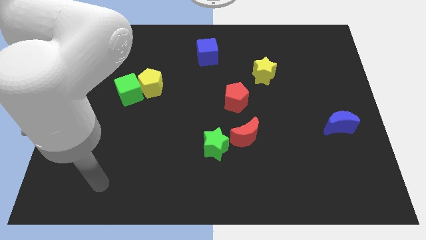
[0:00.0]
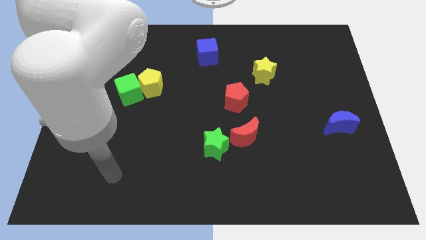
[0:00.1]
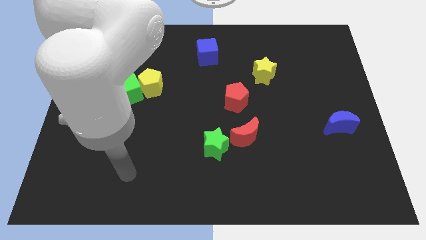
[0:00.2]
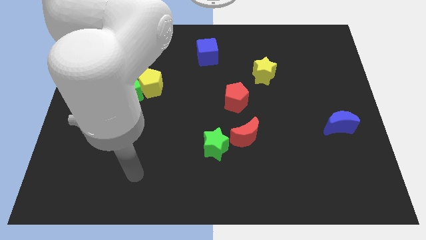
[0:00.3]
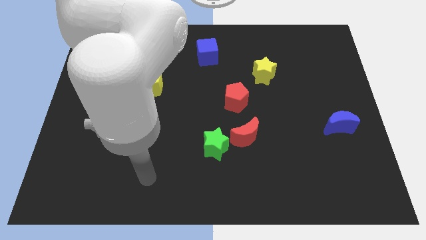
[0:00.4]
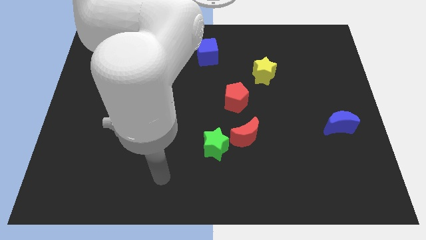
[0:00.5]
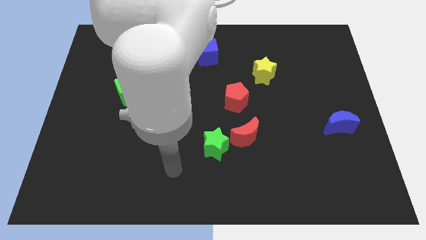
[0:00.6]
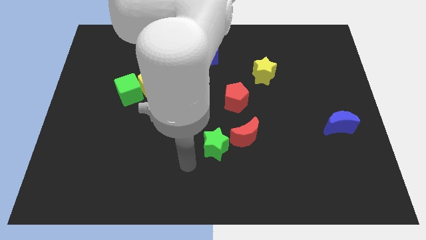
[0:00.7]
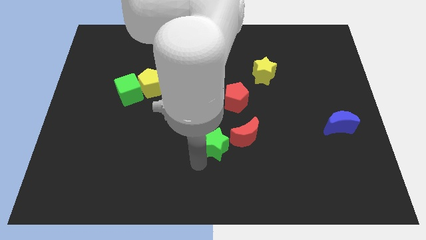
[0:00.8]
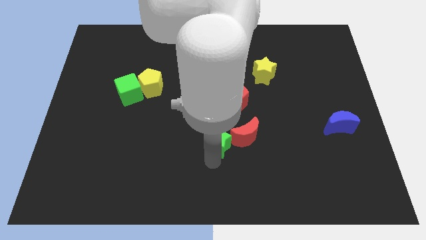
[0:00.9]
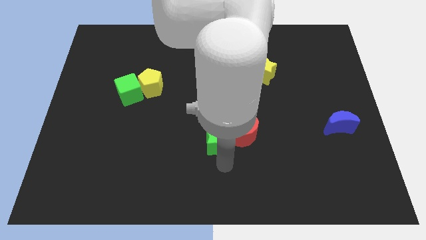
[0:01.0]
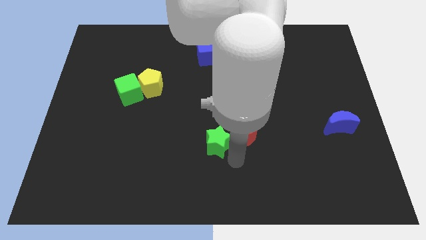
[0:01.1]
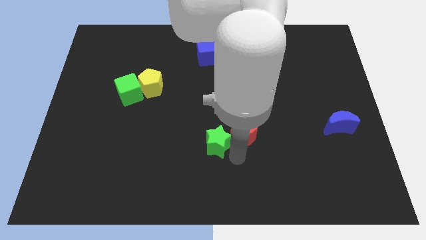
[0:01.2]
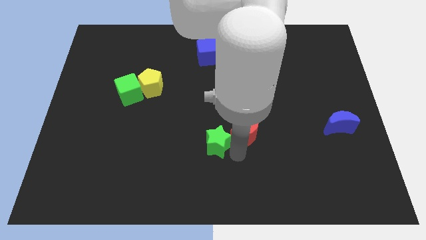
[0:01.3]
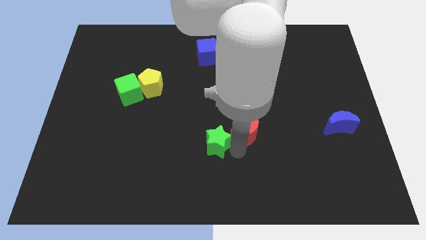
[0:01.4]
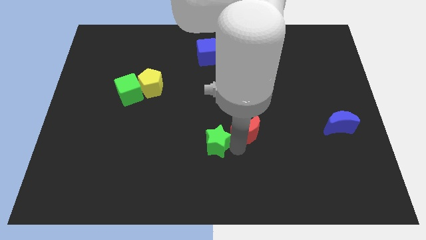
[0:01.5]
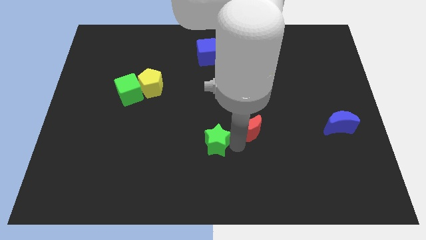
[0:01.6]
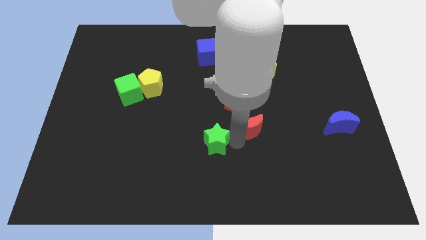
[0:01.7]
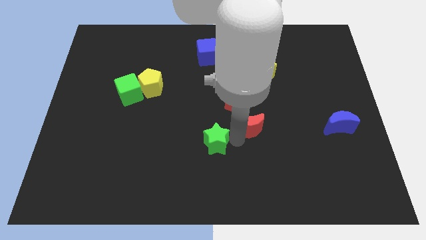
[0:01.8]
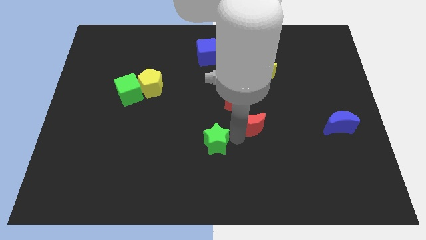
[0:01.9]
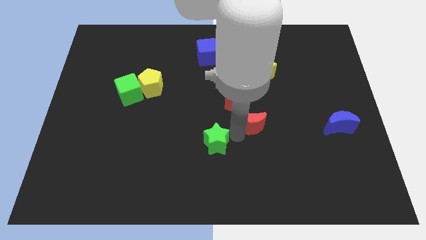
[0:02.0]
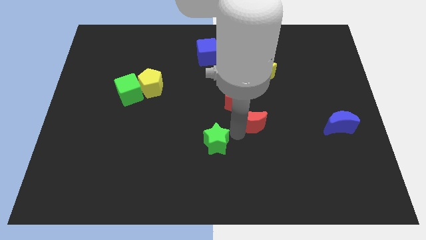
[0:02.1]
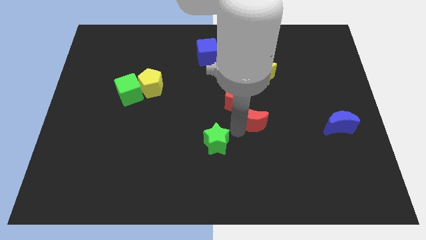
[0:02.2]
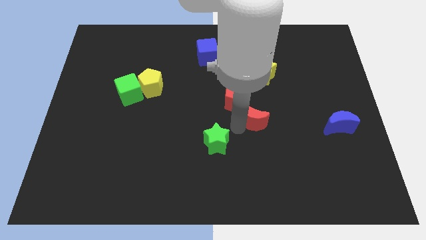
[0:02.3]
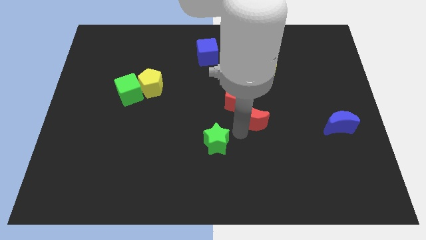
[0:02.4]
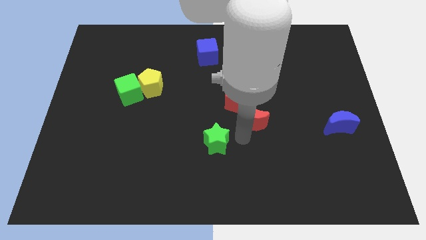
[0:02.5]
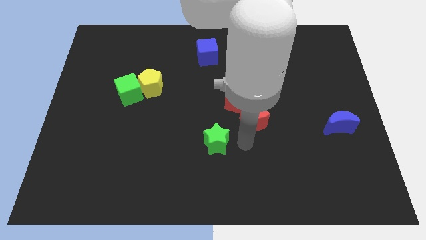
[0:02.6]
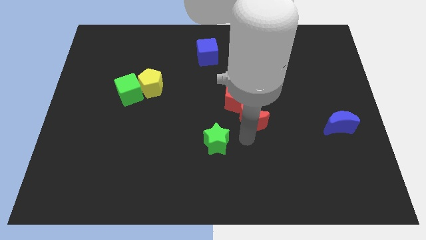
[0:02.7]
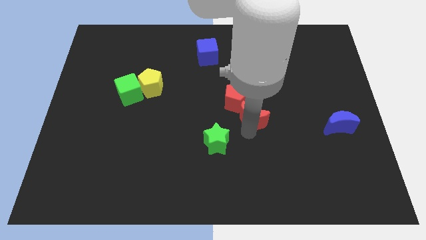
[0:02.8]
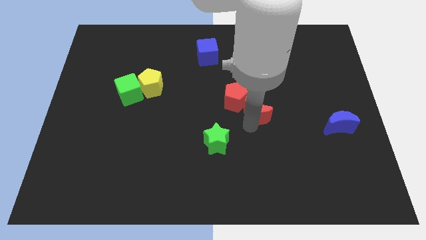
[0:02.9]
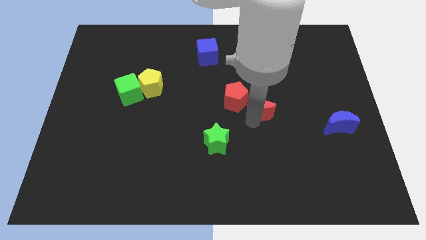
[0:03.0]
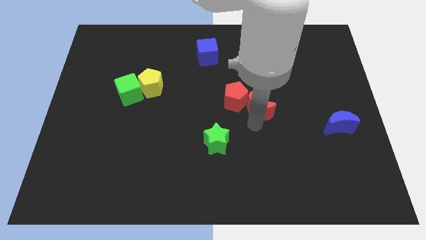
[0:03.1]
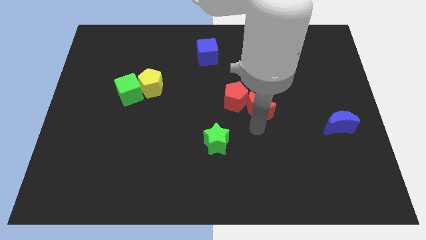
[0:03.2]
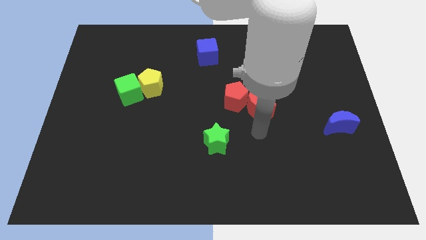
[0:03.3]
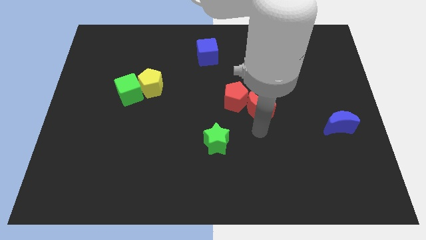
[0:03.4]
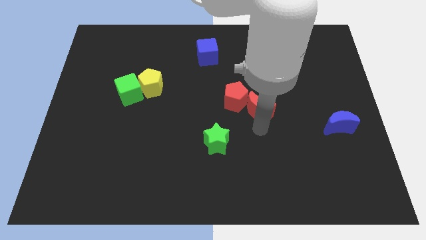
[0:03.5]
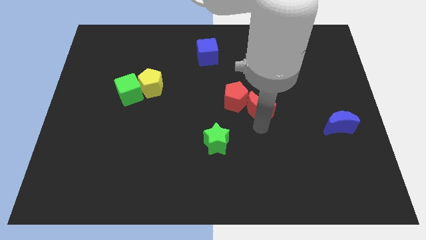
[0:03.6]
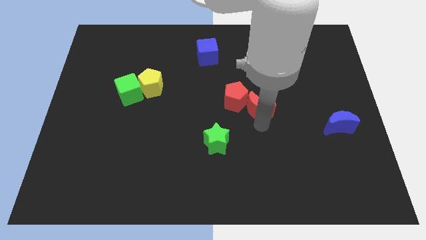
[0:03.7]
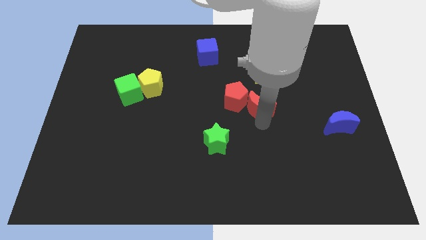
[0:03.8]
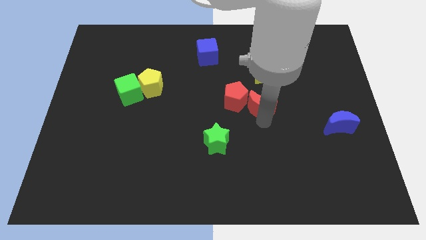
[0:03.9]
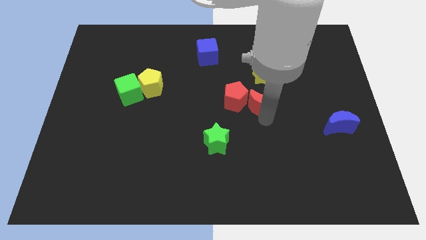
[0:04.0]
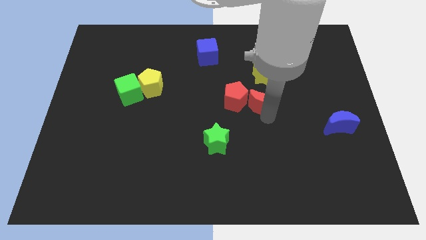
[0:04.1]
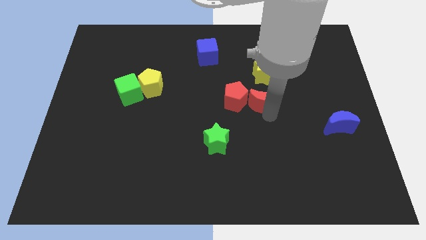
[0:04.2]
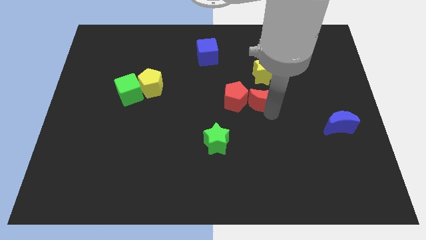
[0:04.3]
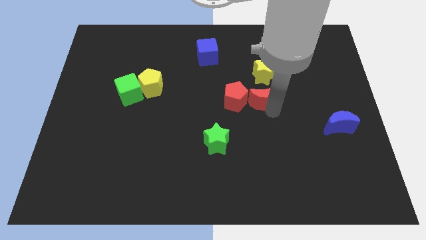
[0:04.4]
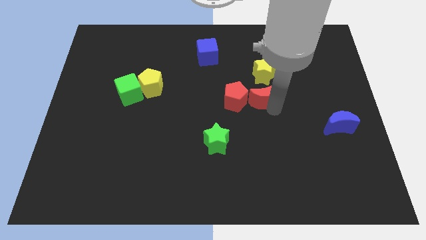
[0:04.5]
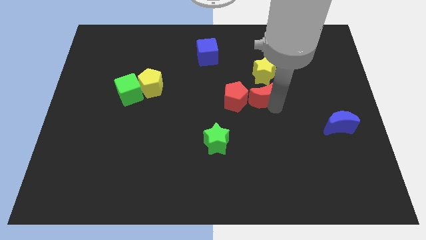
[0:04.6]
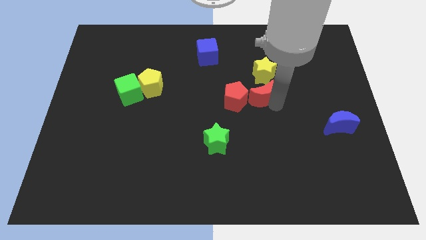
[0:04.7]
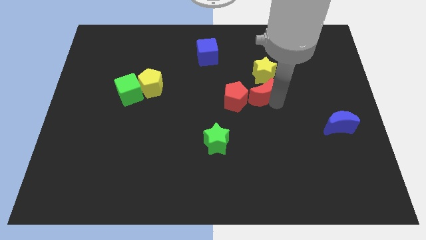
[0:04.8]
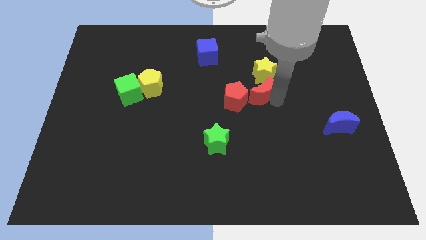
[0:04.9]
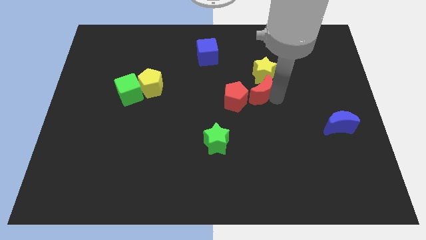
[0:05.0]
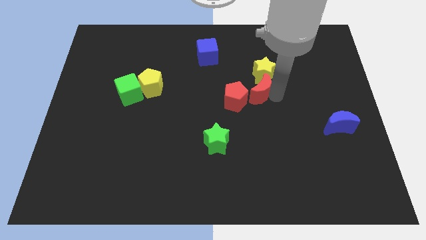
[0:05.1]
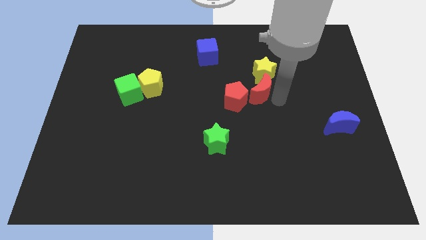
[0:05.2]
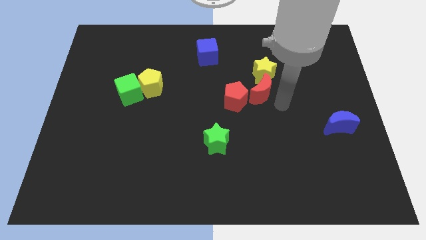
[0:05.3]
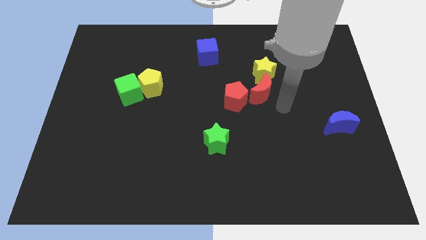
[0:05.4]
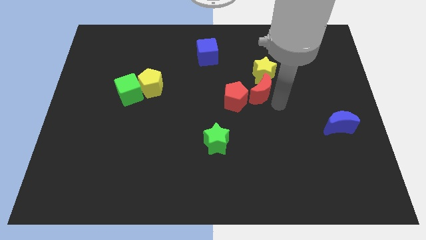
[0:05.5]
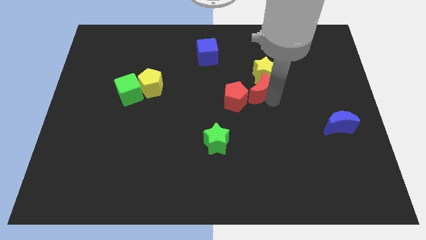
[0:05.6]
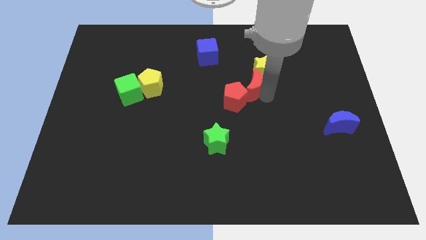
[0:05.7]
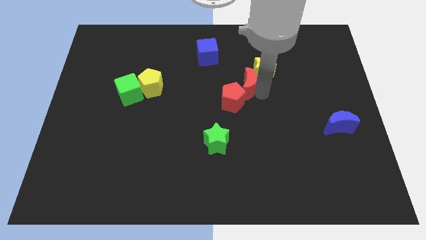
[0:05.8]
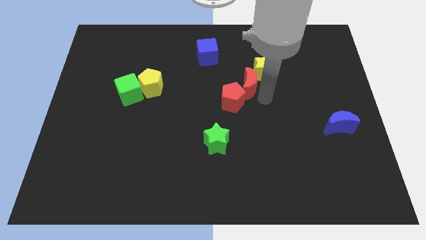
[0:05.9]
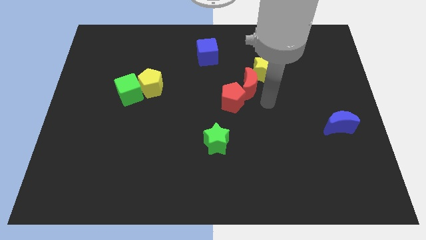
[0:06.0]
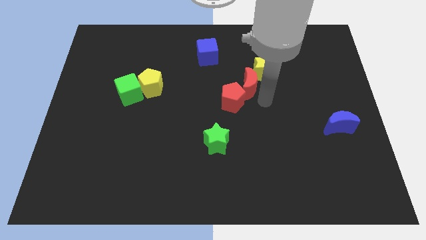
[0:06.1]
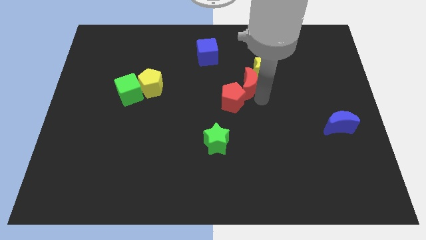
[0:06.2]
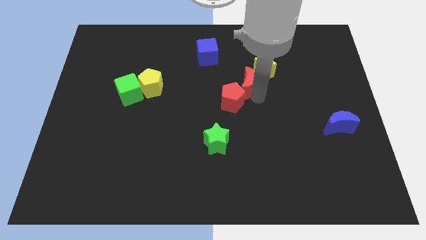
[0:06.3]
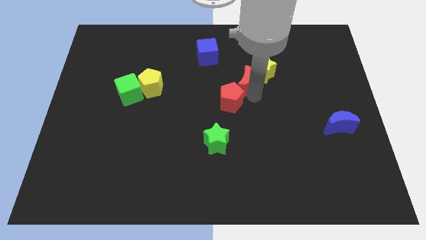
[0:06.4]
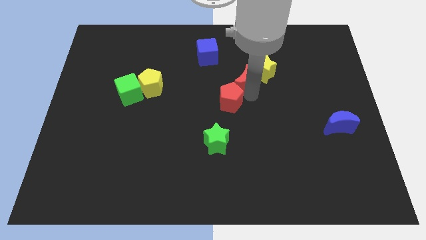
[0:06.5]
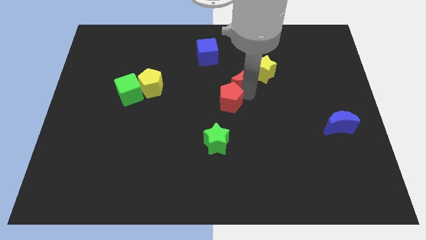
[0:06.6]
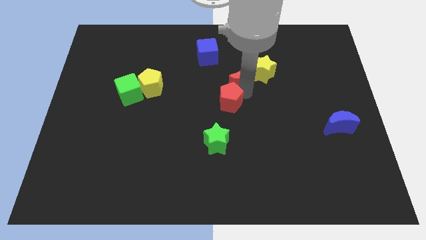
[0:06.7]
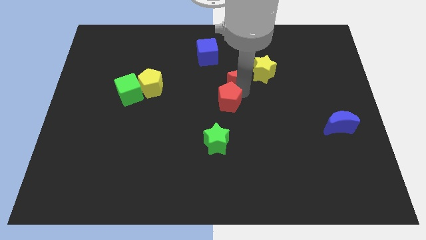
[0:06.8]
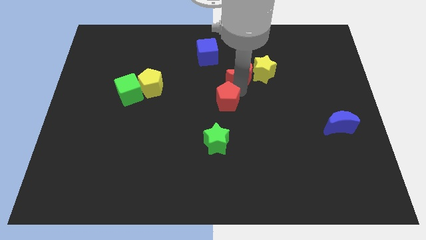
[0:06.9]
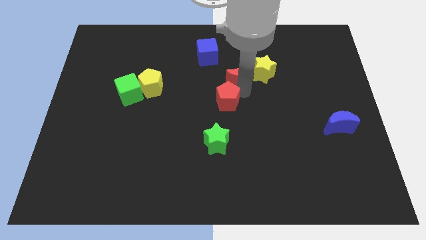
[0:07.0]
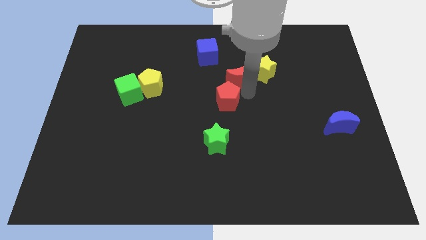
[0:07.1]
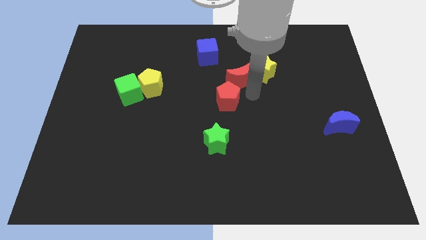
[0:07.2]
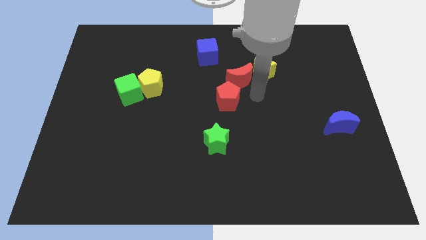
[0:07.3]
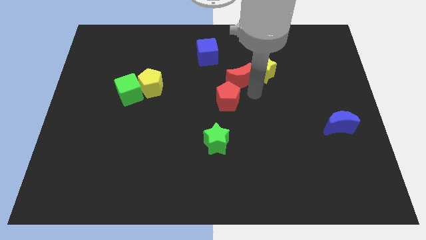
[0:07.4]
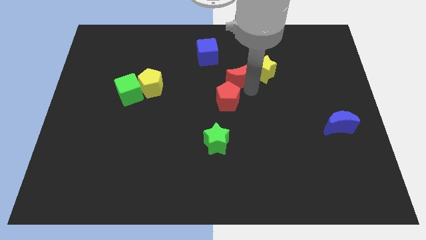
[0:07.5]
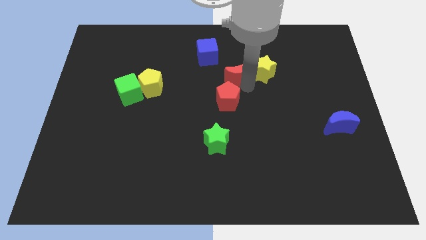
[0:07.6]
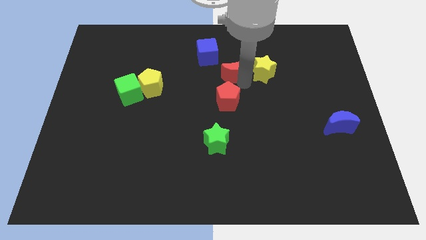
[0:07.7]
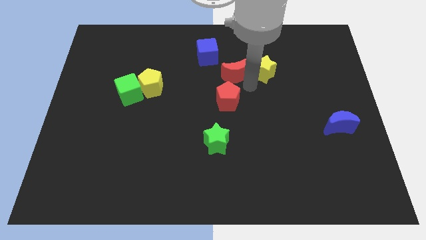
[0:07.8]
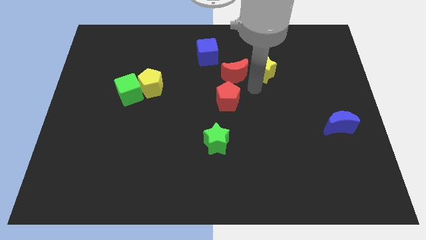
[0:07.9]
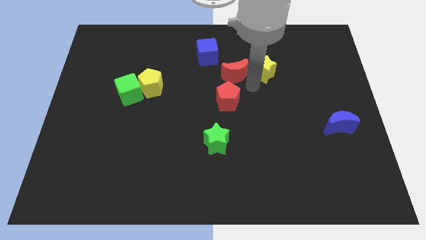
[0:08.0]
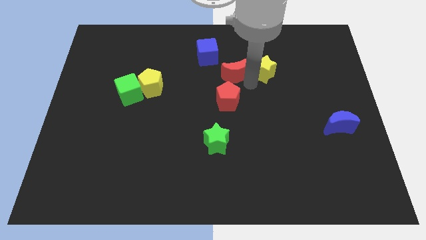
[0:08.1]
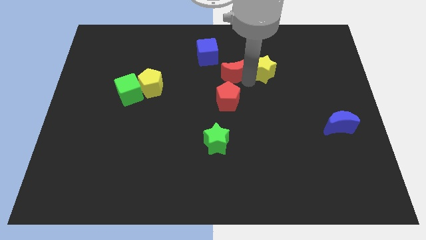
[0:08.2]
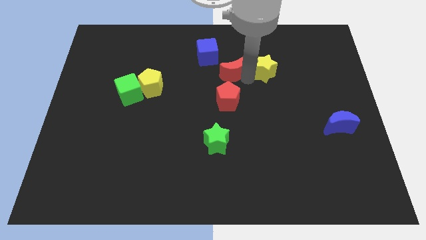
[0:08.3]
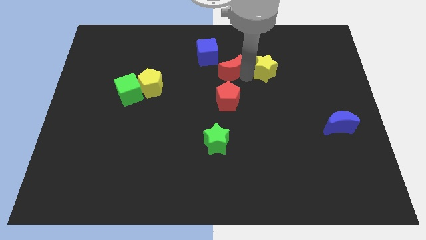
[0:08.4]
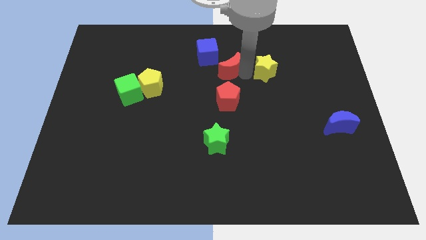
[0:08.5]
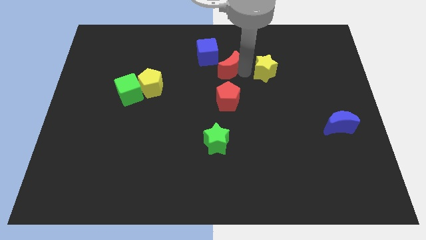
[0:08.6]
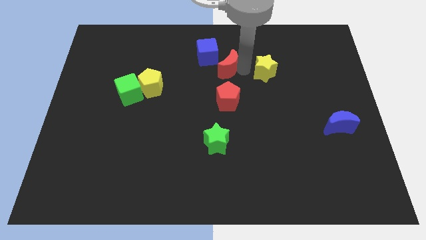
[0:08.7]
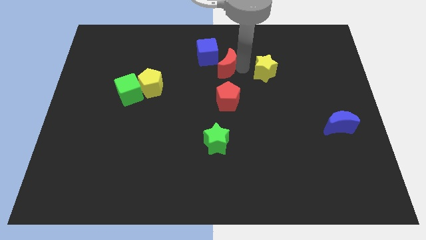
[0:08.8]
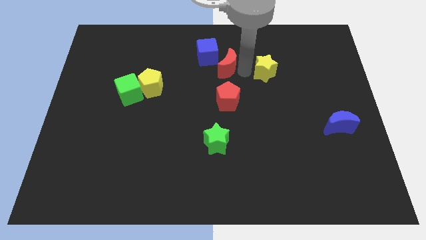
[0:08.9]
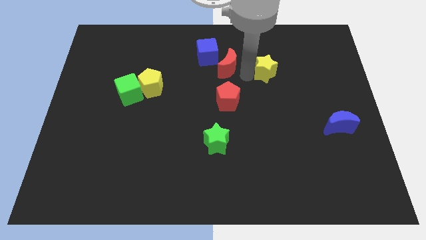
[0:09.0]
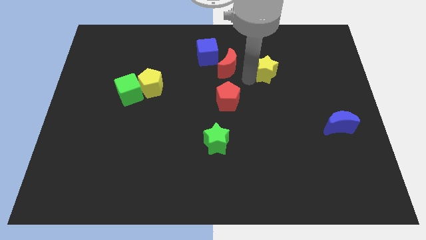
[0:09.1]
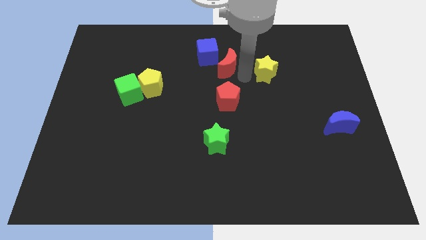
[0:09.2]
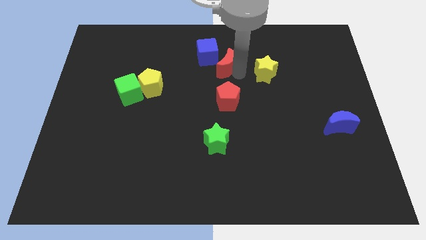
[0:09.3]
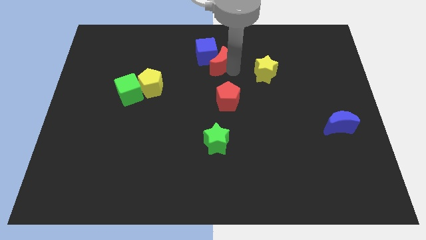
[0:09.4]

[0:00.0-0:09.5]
move the red moon close to the blue cube
